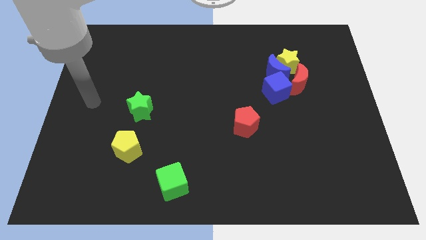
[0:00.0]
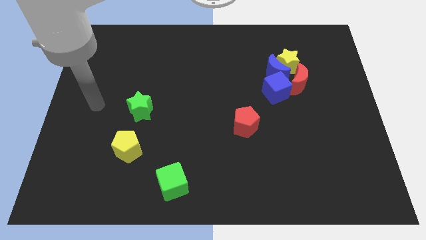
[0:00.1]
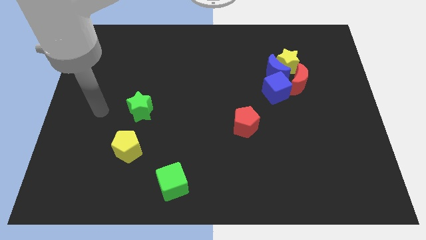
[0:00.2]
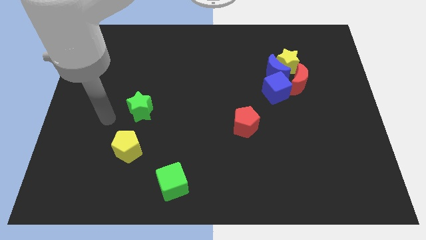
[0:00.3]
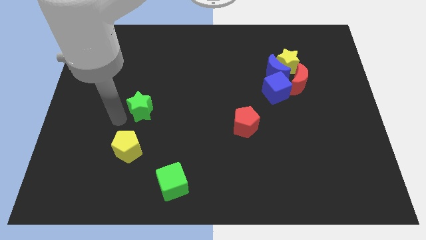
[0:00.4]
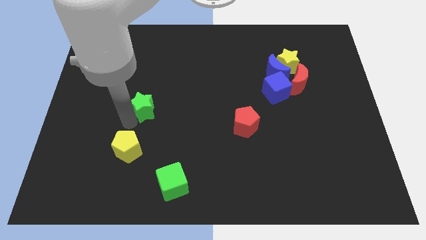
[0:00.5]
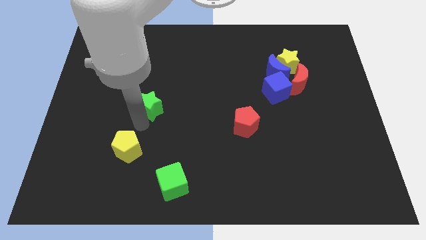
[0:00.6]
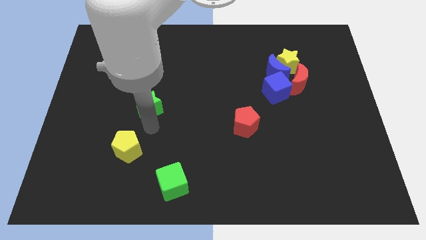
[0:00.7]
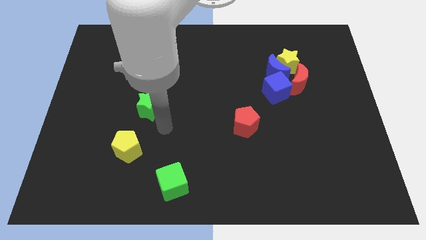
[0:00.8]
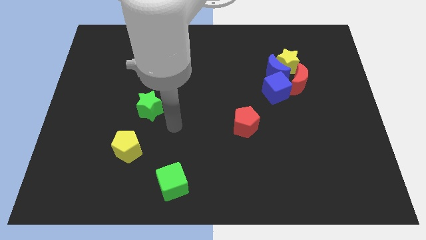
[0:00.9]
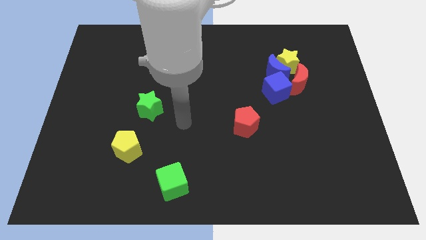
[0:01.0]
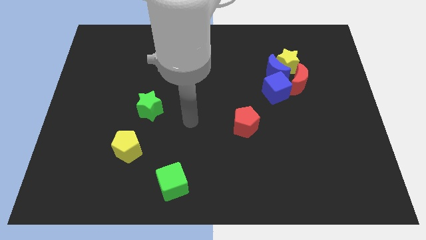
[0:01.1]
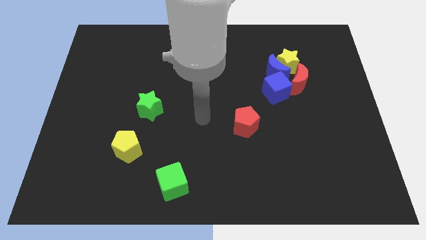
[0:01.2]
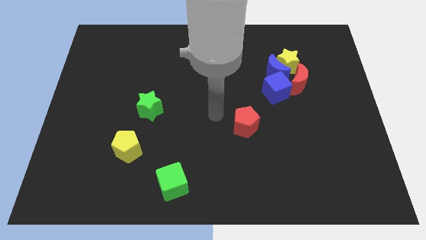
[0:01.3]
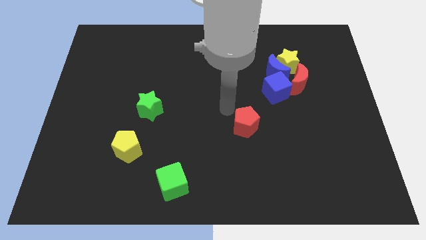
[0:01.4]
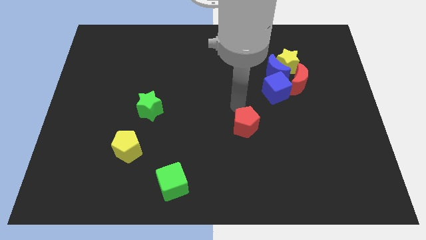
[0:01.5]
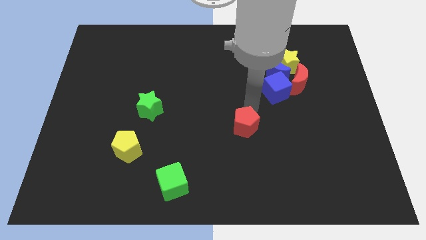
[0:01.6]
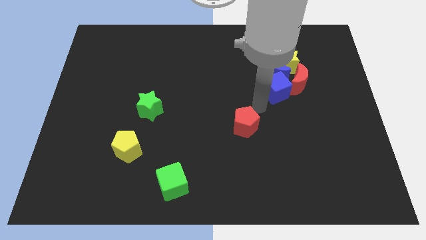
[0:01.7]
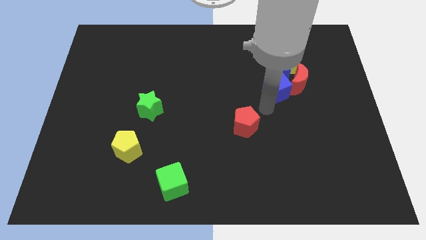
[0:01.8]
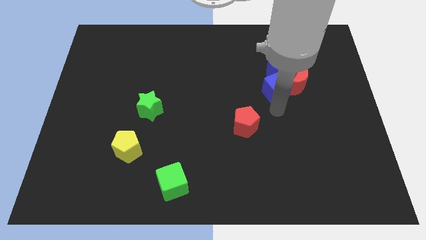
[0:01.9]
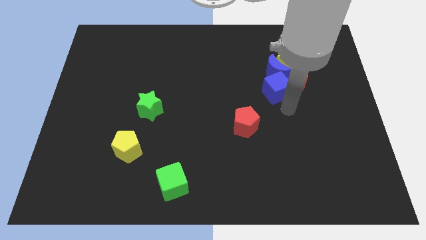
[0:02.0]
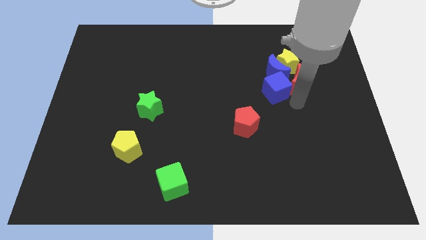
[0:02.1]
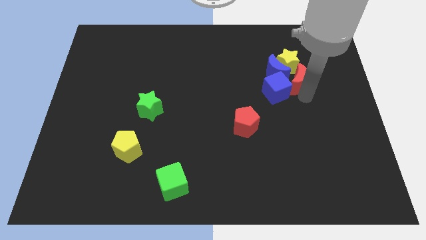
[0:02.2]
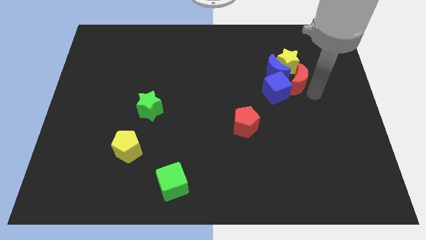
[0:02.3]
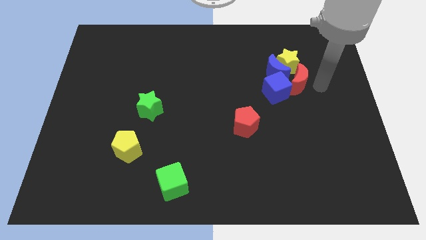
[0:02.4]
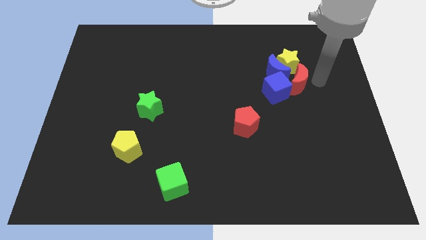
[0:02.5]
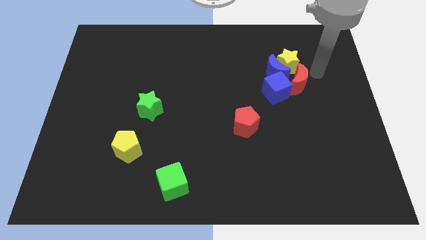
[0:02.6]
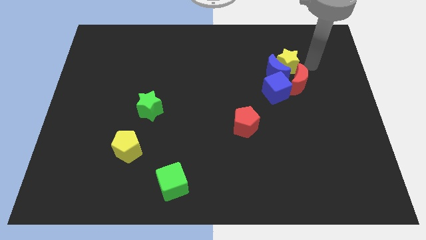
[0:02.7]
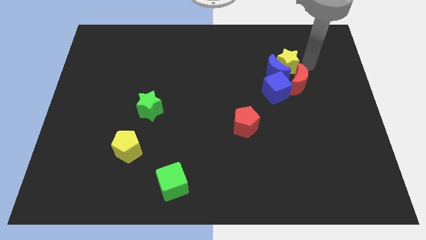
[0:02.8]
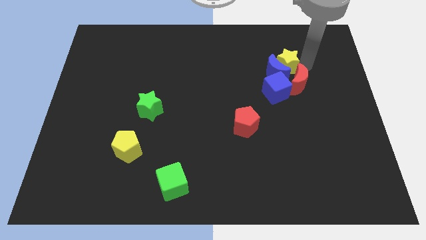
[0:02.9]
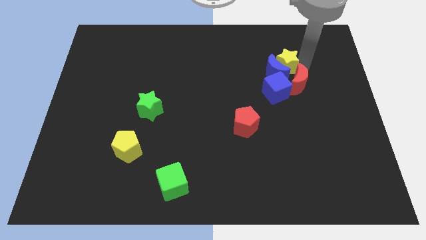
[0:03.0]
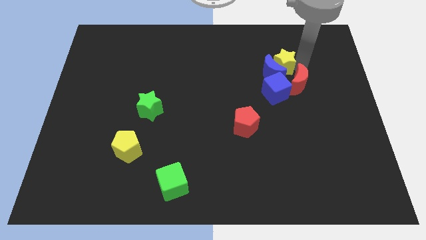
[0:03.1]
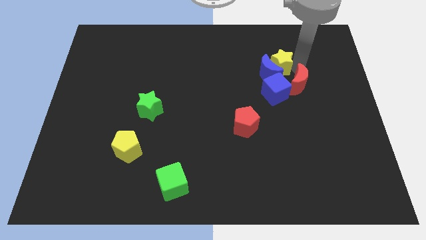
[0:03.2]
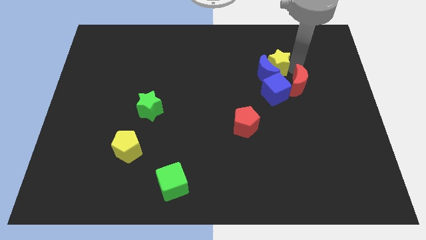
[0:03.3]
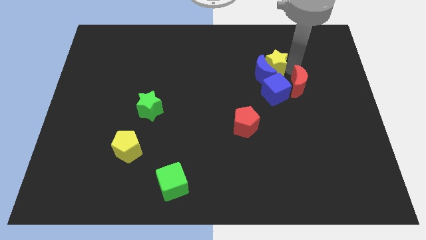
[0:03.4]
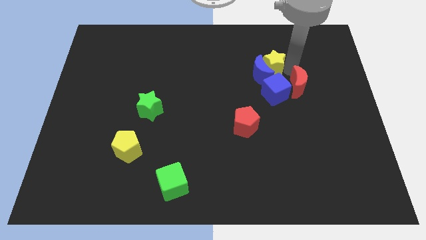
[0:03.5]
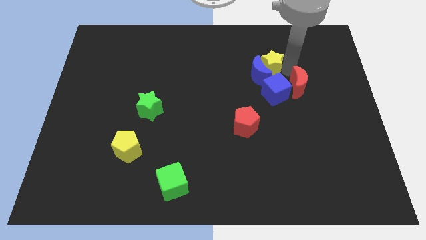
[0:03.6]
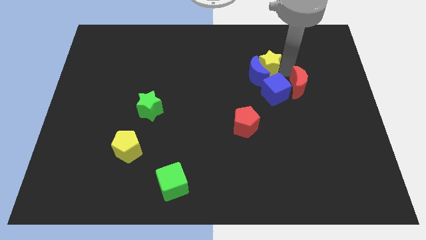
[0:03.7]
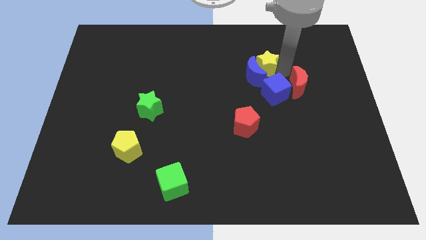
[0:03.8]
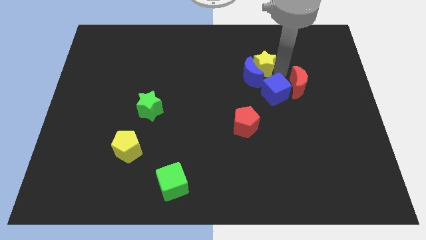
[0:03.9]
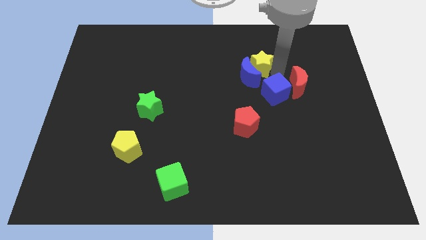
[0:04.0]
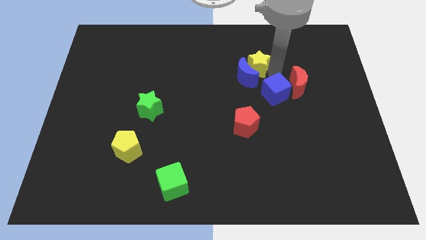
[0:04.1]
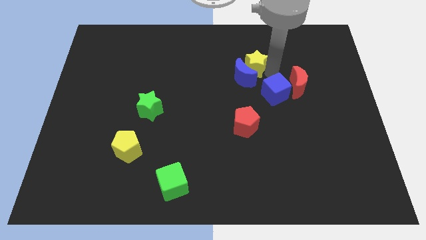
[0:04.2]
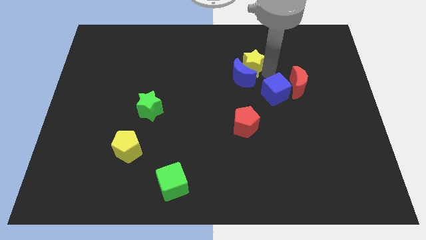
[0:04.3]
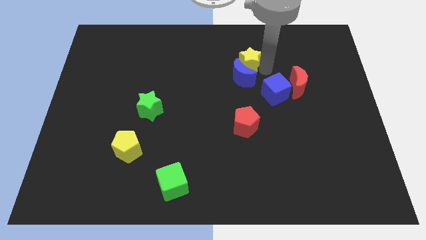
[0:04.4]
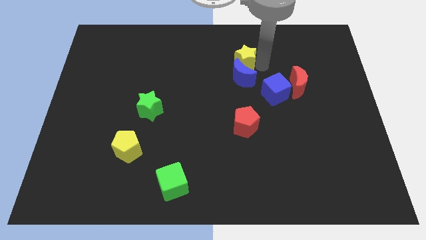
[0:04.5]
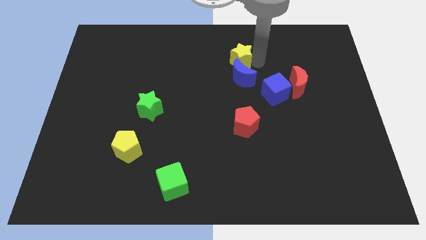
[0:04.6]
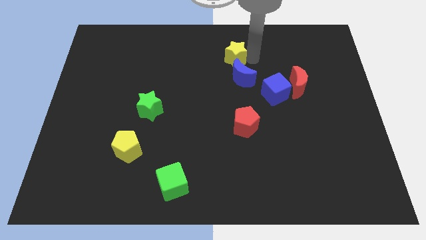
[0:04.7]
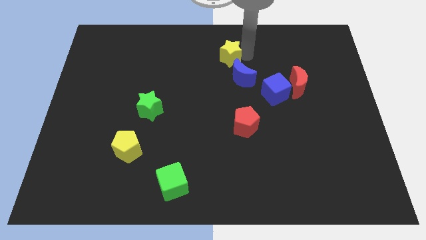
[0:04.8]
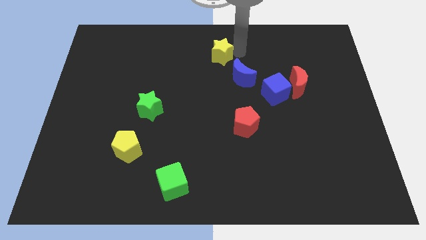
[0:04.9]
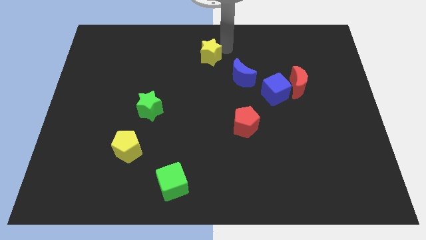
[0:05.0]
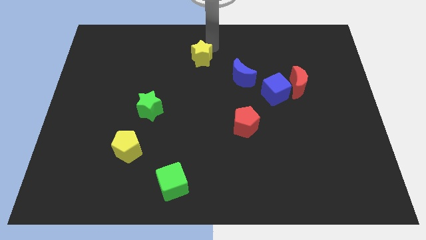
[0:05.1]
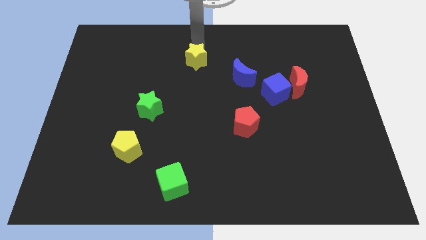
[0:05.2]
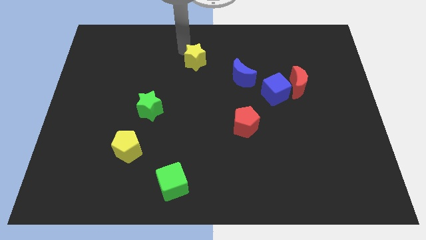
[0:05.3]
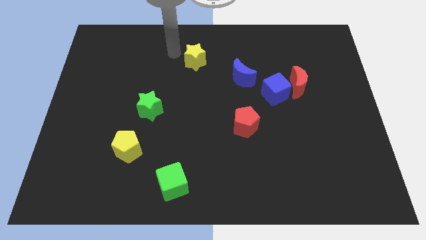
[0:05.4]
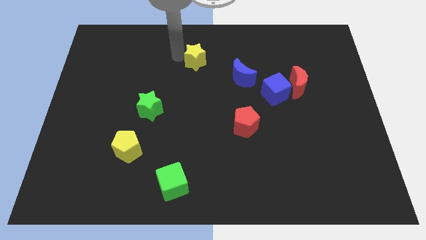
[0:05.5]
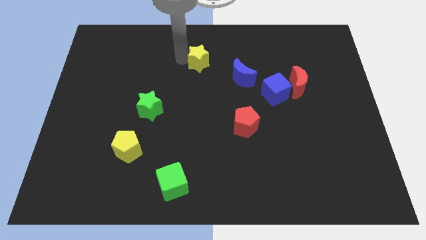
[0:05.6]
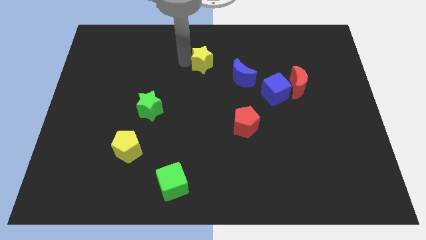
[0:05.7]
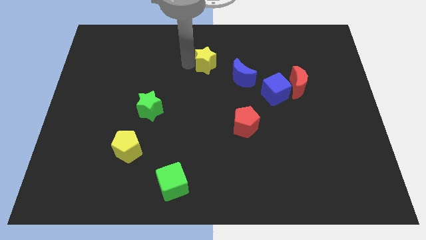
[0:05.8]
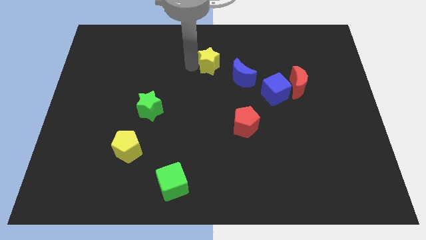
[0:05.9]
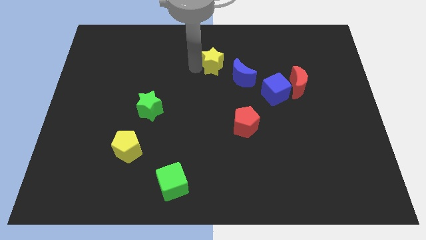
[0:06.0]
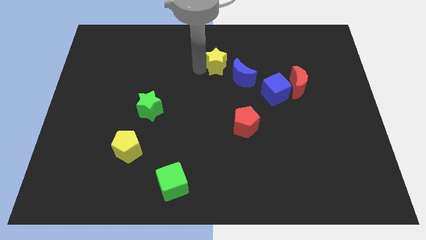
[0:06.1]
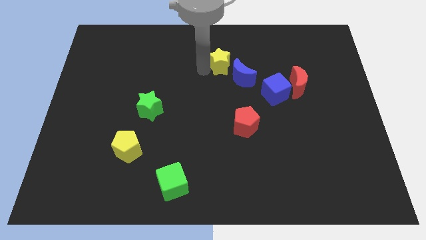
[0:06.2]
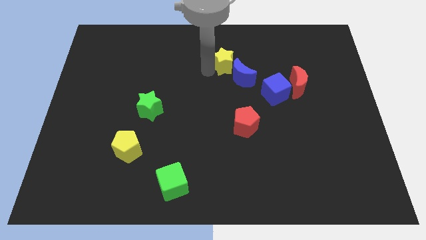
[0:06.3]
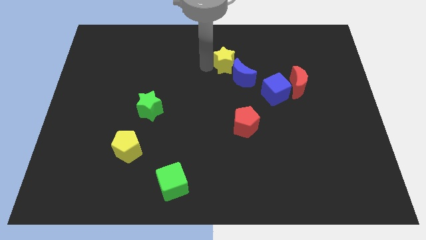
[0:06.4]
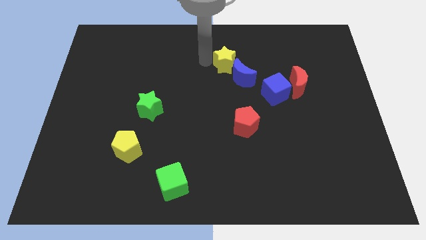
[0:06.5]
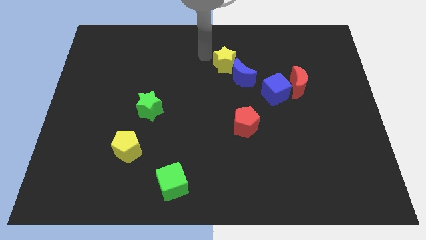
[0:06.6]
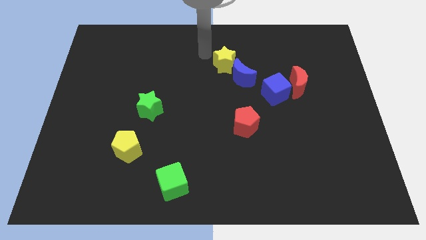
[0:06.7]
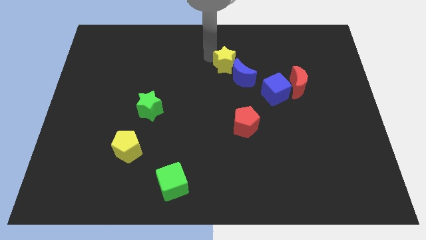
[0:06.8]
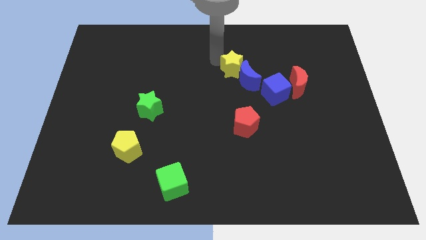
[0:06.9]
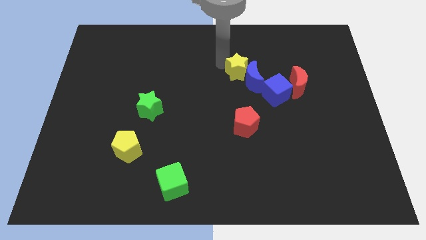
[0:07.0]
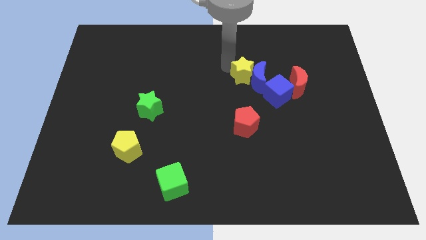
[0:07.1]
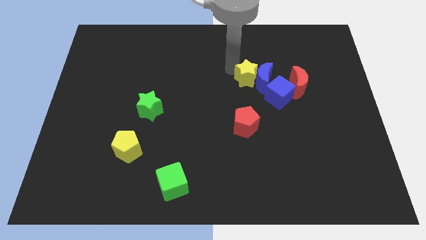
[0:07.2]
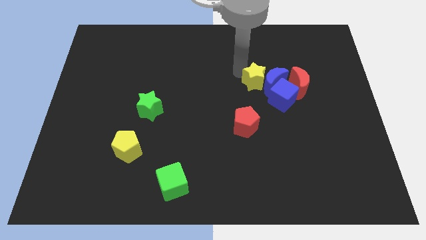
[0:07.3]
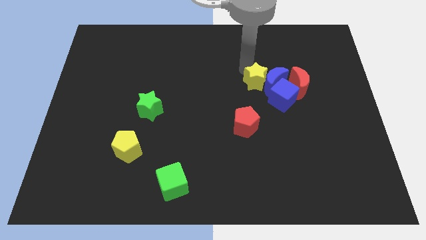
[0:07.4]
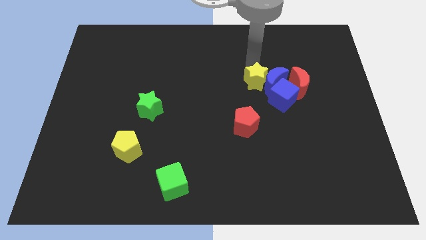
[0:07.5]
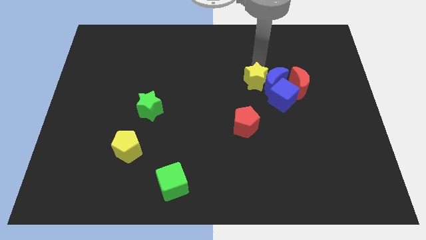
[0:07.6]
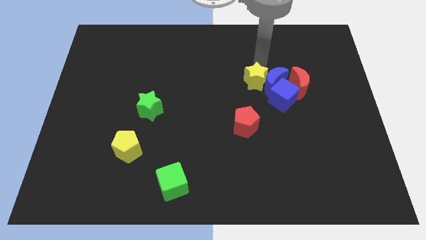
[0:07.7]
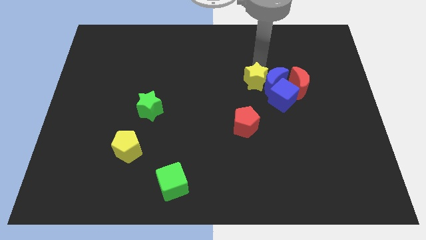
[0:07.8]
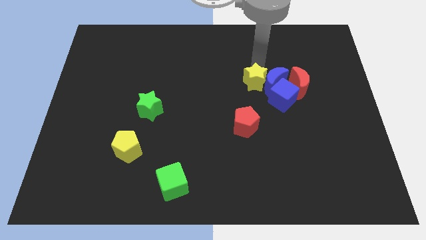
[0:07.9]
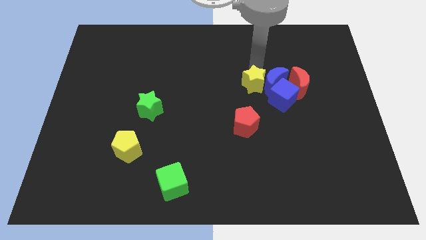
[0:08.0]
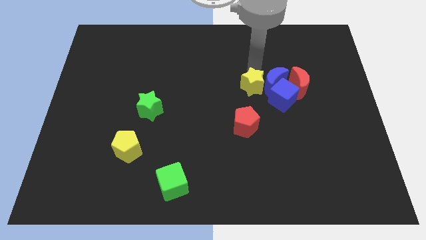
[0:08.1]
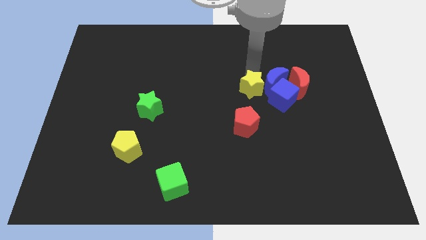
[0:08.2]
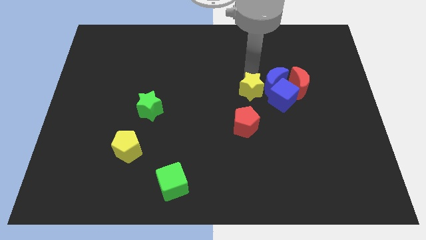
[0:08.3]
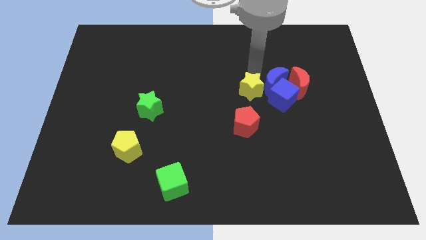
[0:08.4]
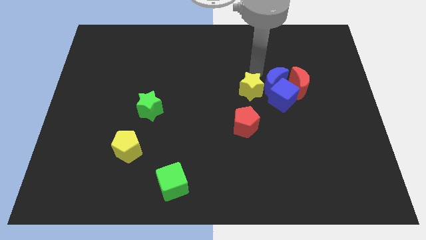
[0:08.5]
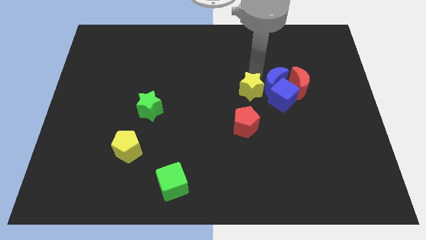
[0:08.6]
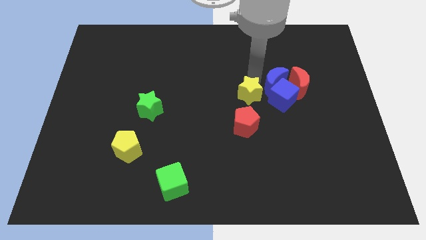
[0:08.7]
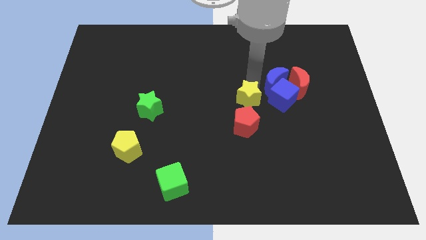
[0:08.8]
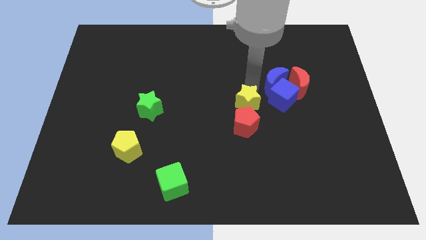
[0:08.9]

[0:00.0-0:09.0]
move the yellow star to the red pentagon
